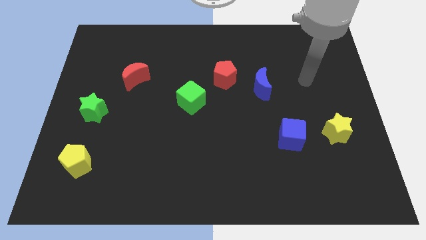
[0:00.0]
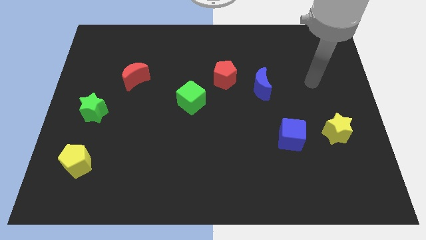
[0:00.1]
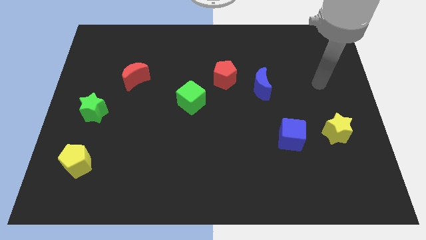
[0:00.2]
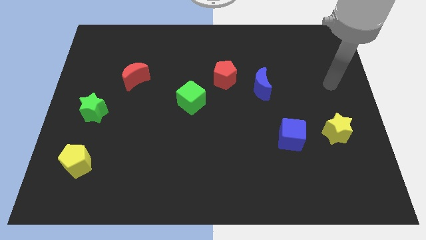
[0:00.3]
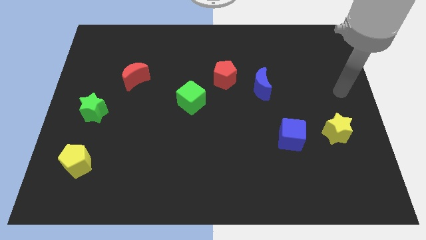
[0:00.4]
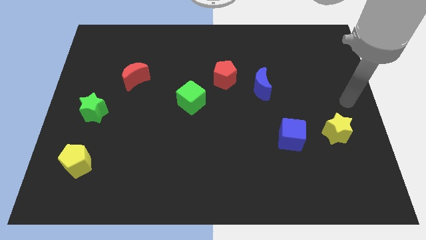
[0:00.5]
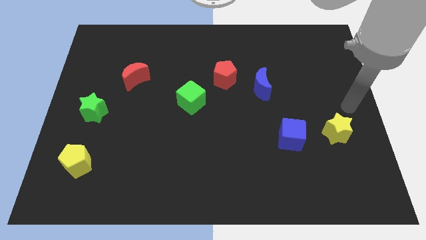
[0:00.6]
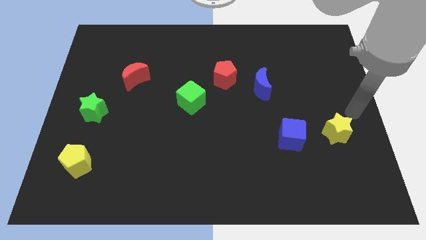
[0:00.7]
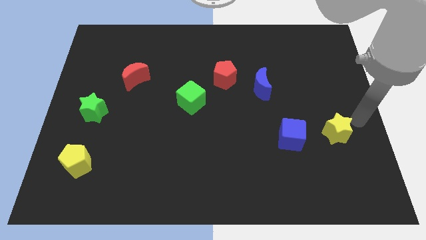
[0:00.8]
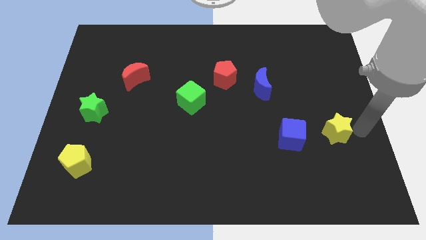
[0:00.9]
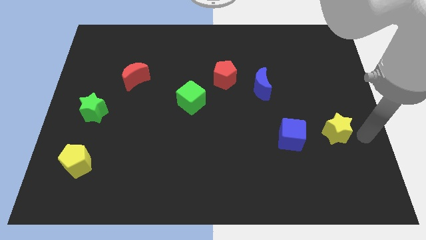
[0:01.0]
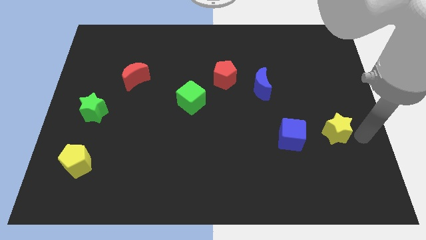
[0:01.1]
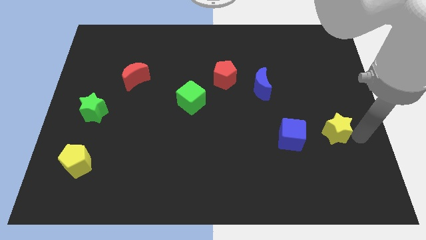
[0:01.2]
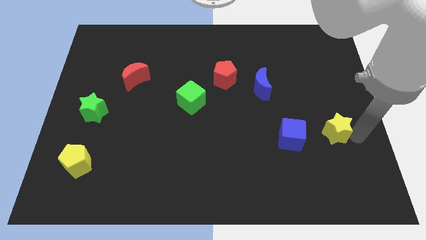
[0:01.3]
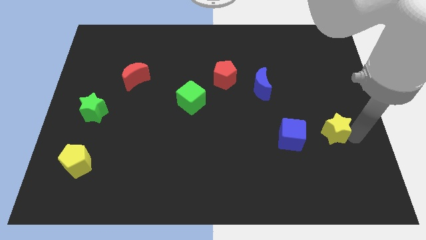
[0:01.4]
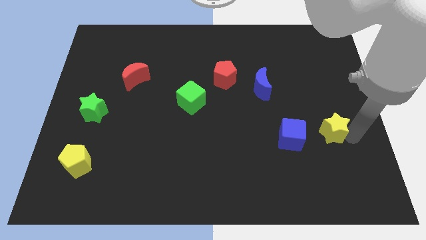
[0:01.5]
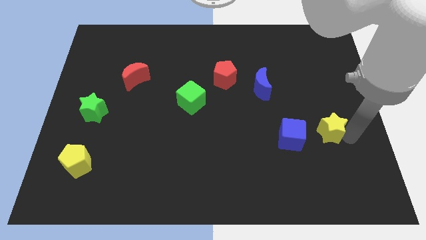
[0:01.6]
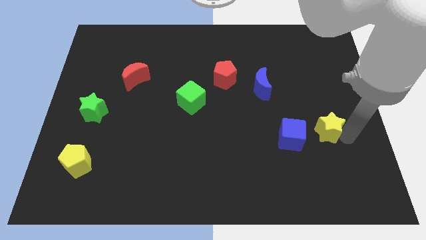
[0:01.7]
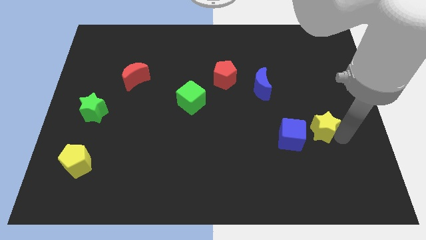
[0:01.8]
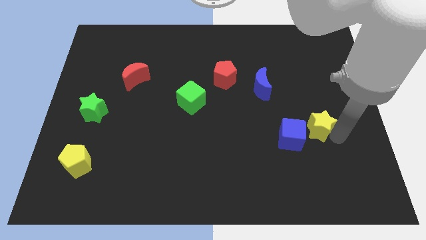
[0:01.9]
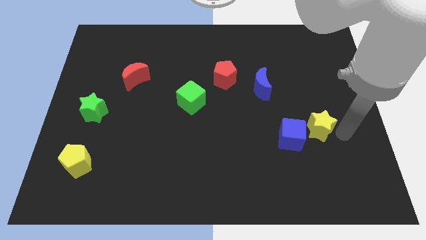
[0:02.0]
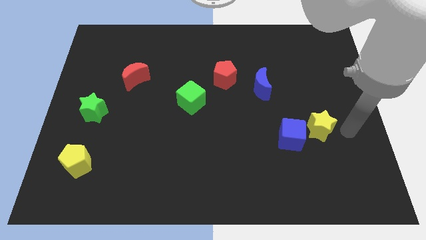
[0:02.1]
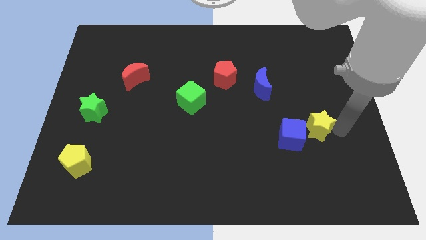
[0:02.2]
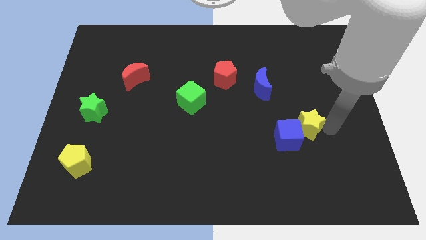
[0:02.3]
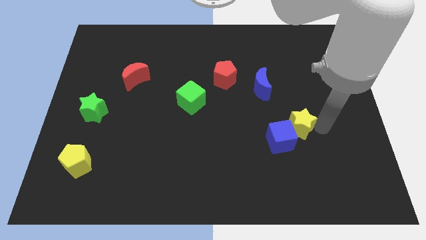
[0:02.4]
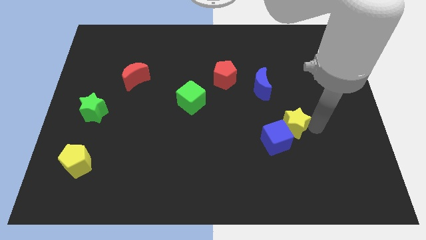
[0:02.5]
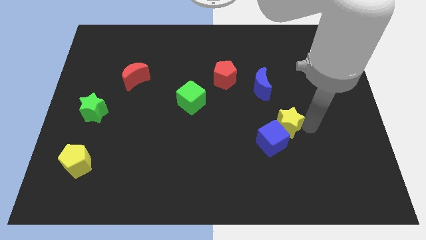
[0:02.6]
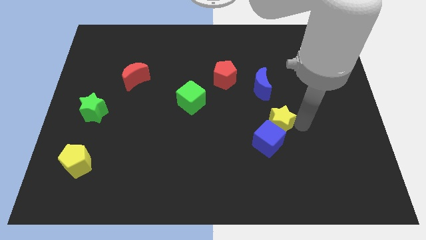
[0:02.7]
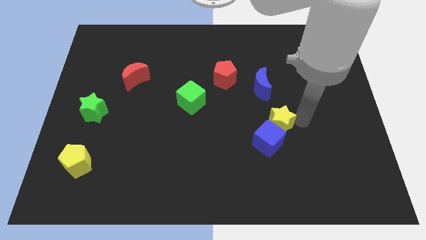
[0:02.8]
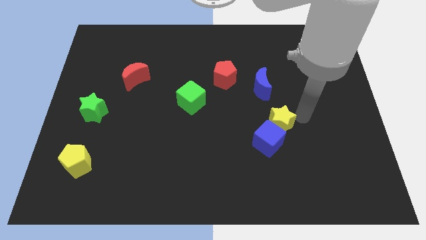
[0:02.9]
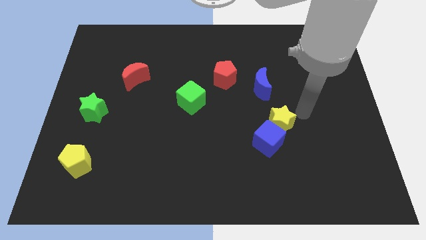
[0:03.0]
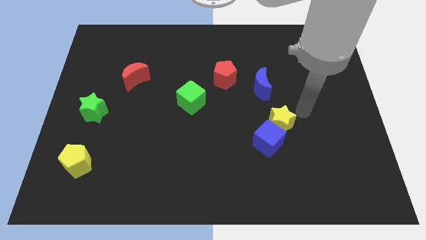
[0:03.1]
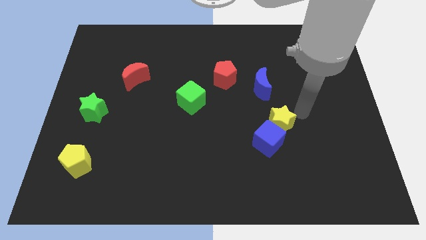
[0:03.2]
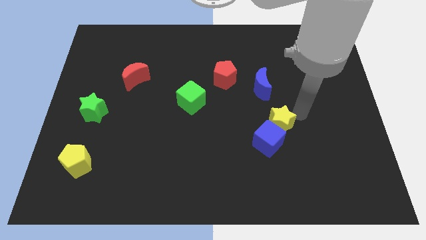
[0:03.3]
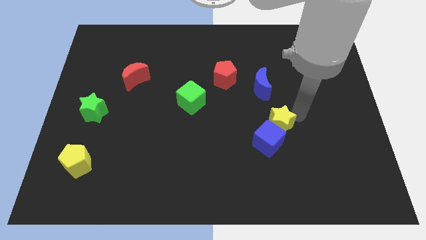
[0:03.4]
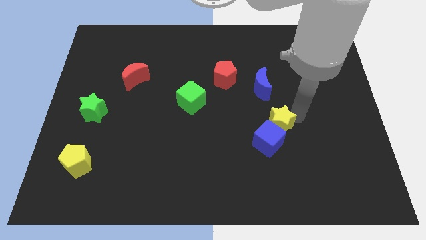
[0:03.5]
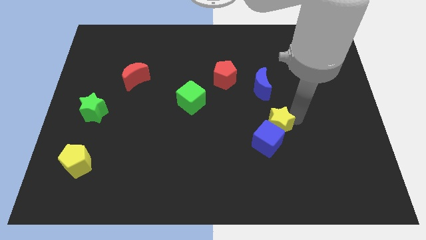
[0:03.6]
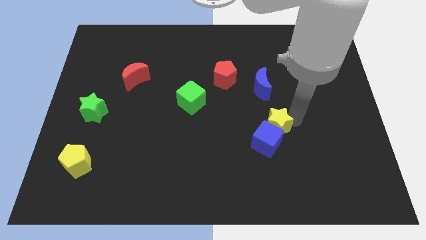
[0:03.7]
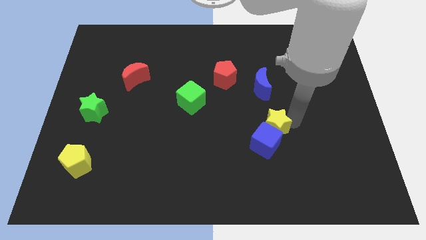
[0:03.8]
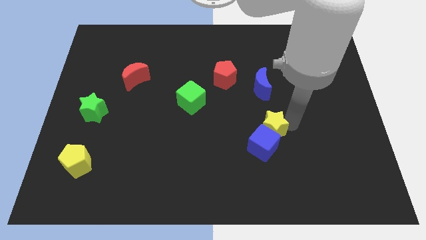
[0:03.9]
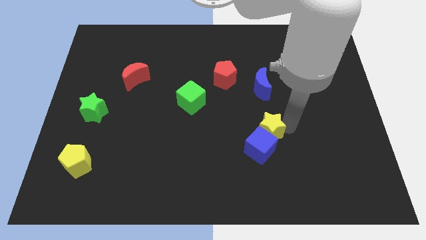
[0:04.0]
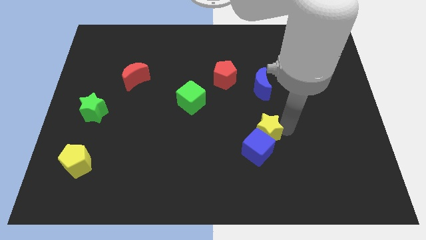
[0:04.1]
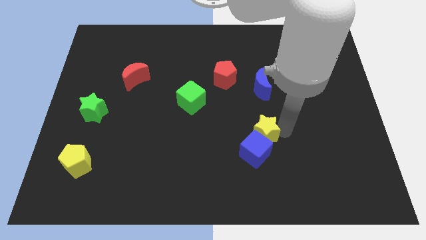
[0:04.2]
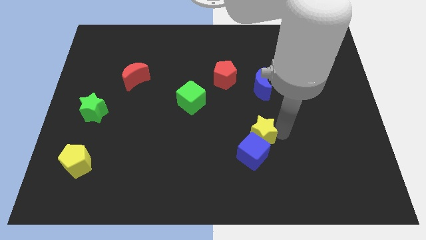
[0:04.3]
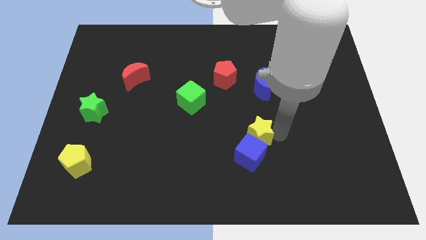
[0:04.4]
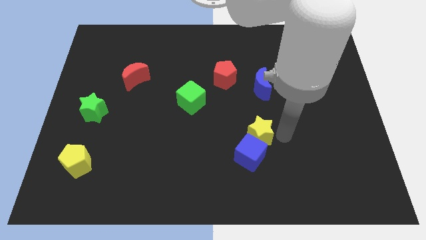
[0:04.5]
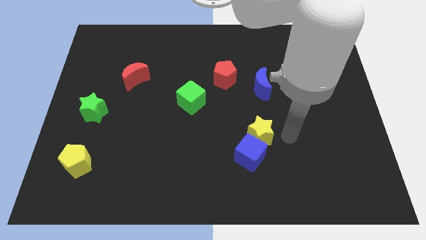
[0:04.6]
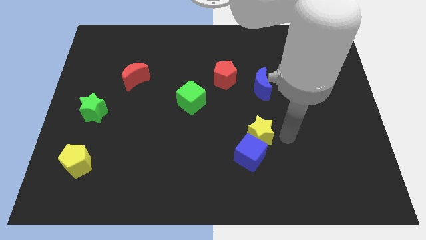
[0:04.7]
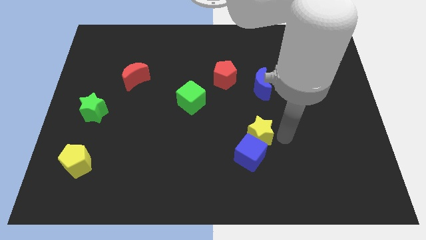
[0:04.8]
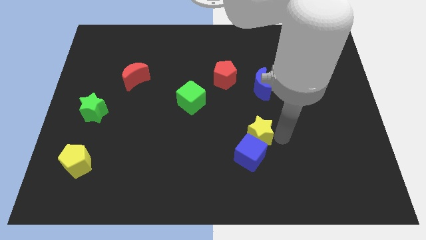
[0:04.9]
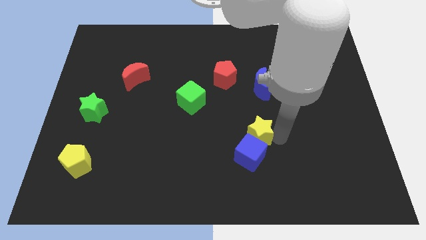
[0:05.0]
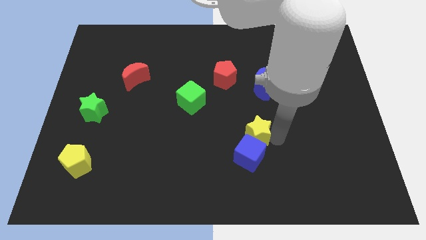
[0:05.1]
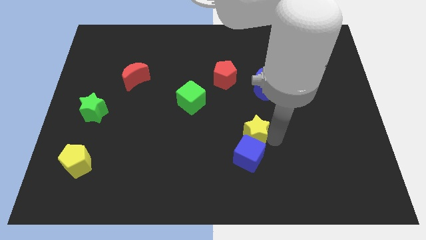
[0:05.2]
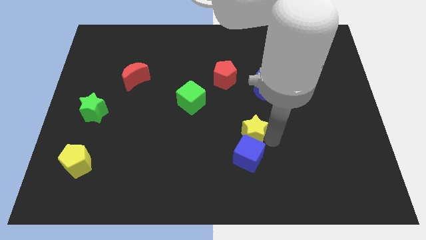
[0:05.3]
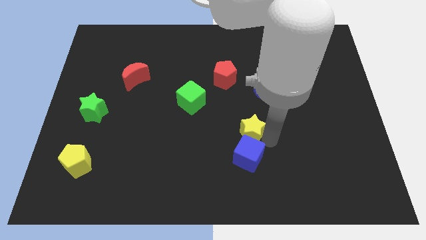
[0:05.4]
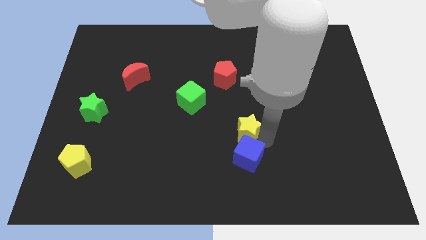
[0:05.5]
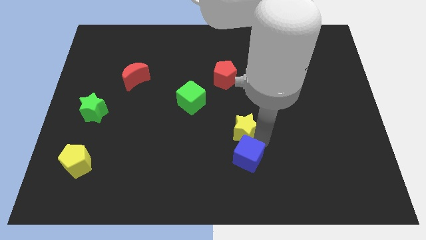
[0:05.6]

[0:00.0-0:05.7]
slide the yellow star left

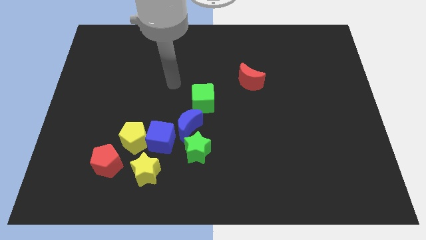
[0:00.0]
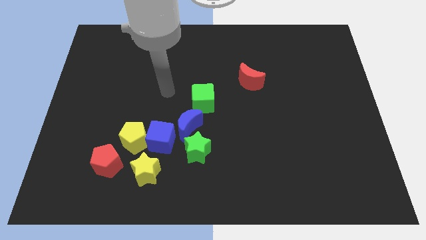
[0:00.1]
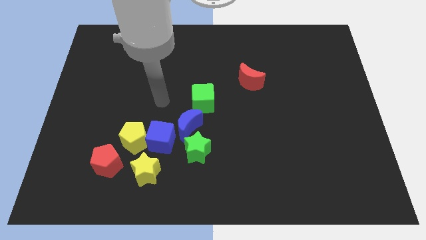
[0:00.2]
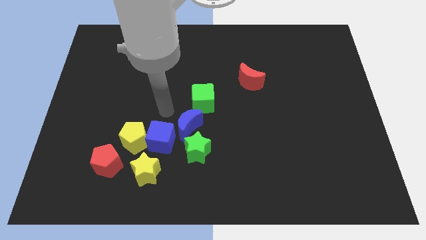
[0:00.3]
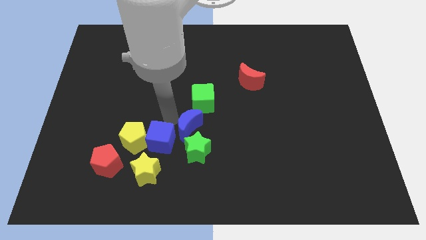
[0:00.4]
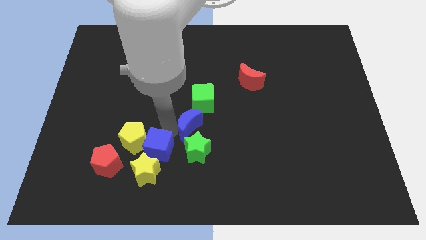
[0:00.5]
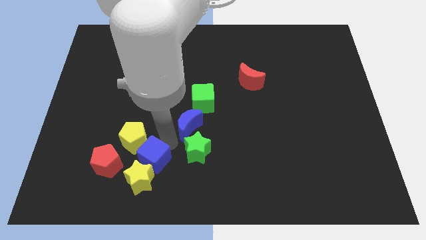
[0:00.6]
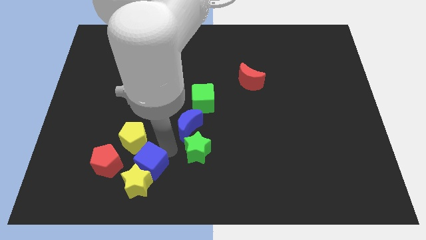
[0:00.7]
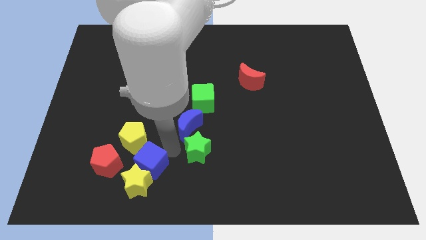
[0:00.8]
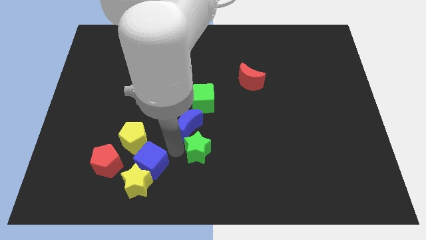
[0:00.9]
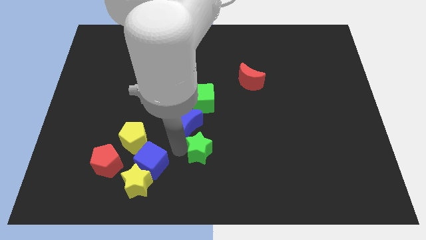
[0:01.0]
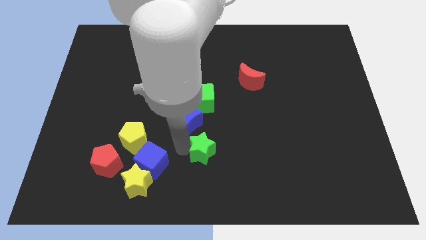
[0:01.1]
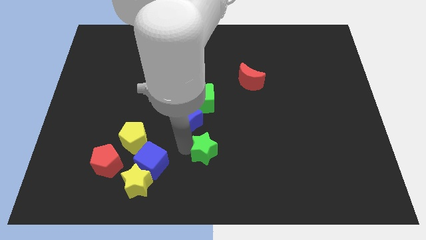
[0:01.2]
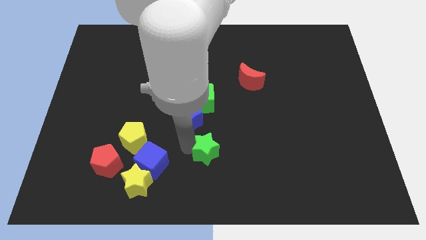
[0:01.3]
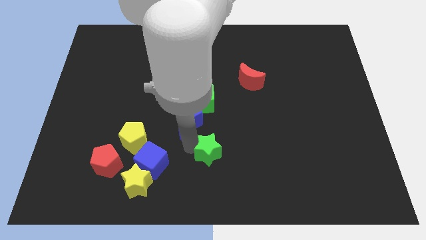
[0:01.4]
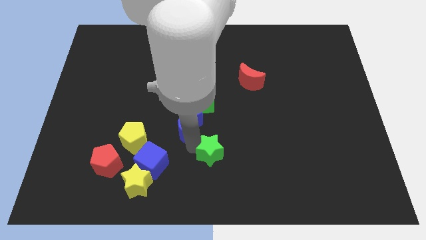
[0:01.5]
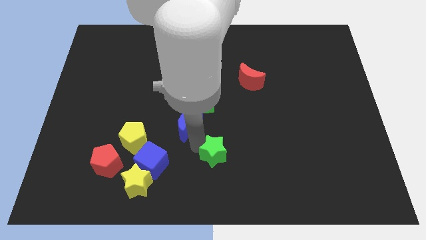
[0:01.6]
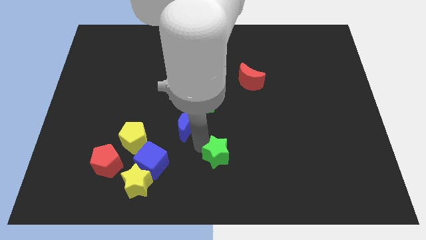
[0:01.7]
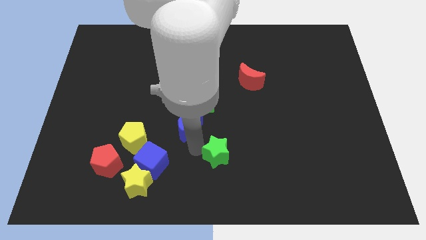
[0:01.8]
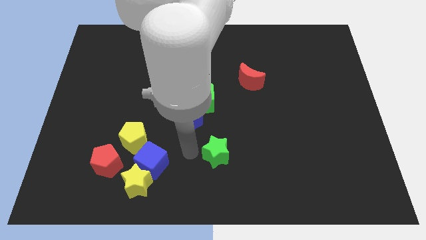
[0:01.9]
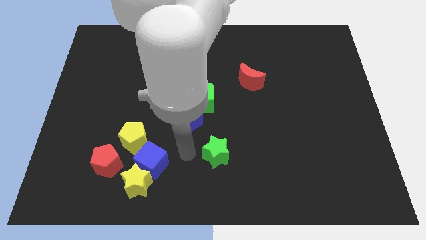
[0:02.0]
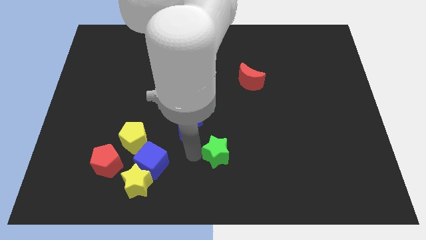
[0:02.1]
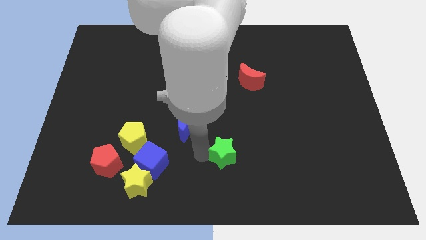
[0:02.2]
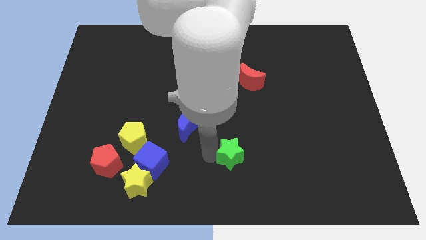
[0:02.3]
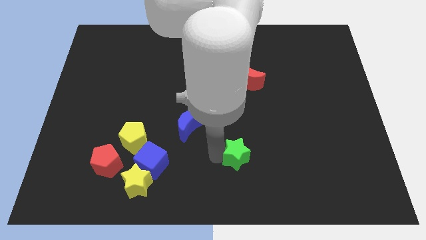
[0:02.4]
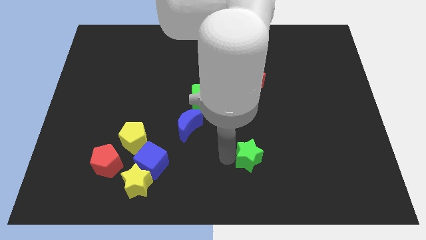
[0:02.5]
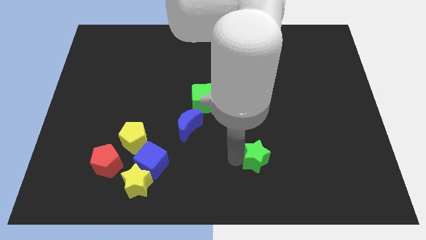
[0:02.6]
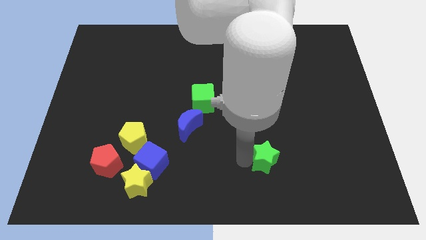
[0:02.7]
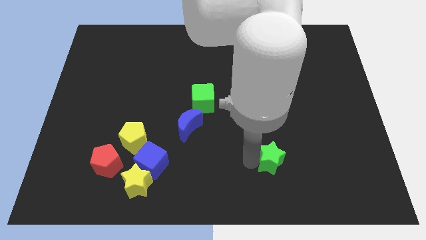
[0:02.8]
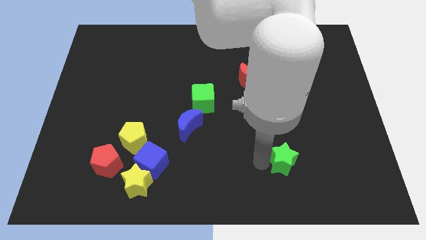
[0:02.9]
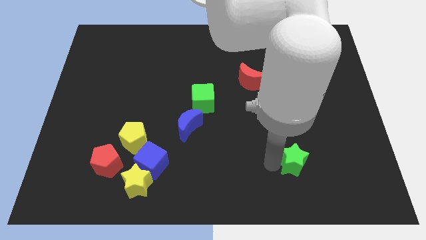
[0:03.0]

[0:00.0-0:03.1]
push the green star right
